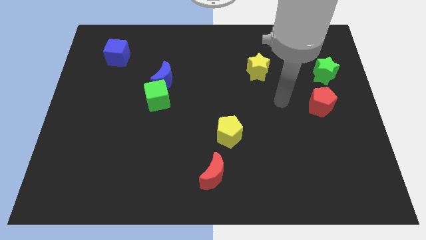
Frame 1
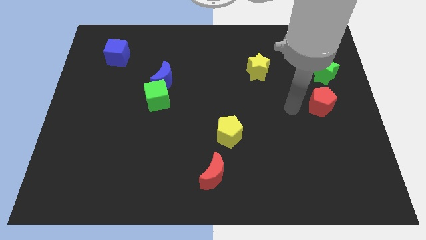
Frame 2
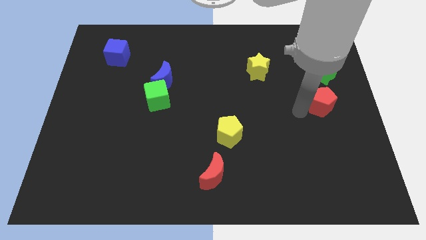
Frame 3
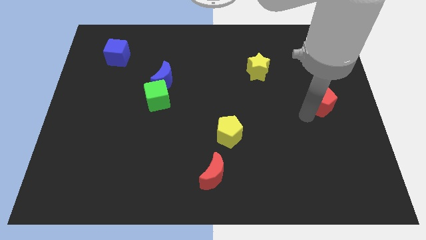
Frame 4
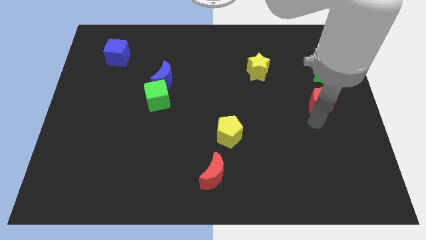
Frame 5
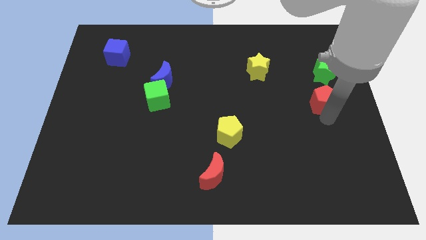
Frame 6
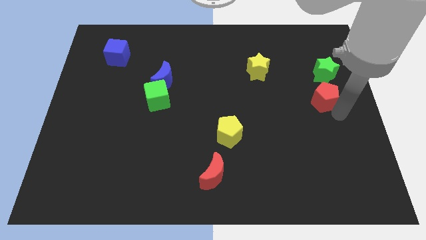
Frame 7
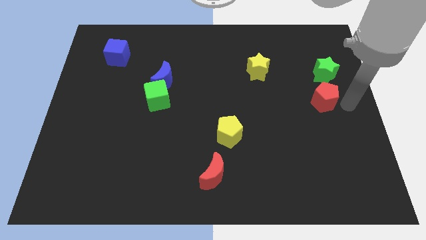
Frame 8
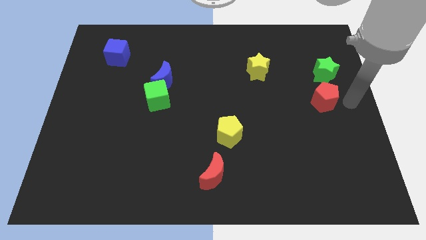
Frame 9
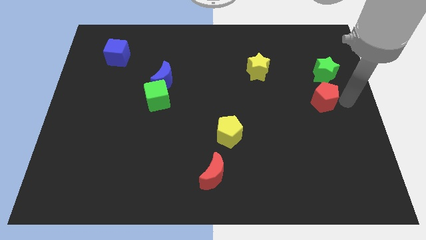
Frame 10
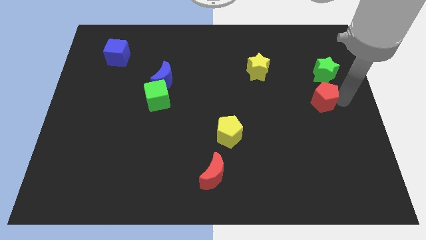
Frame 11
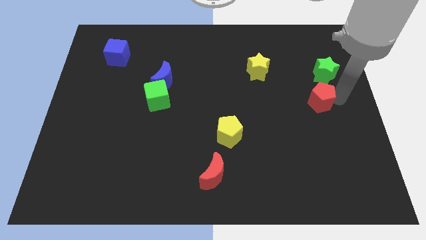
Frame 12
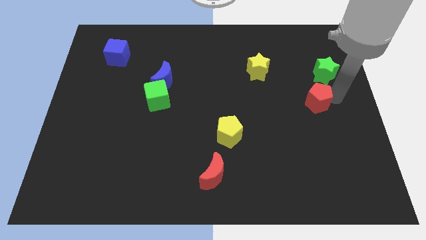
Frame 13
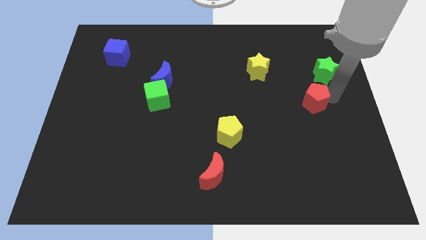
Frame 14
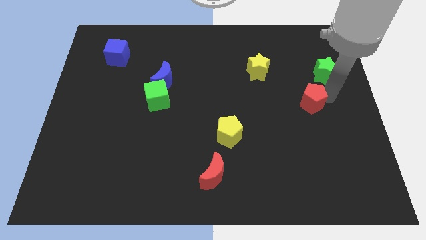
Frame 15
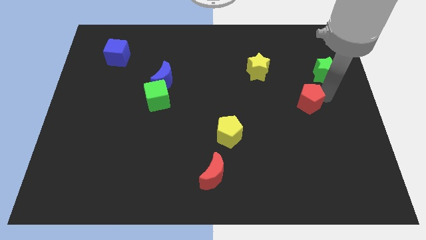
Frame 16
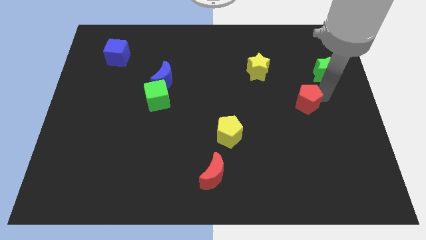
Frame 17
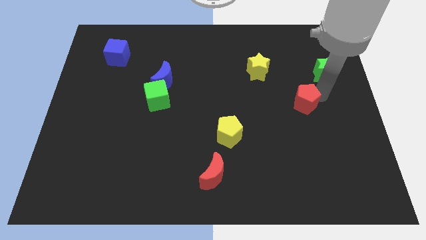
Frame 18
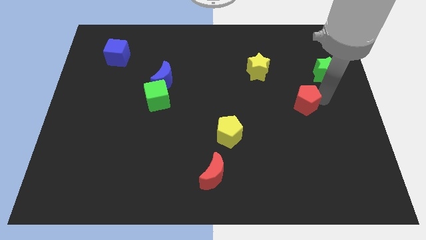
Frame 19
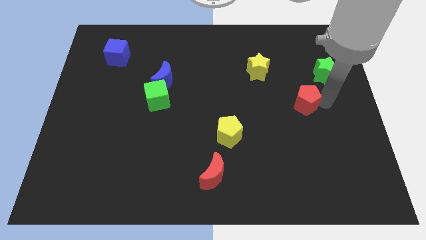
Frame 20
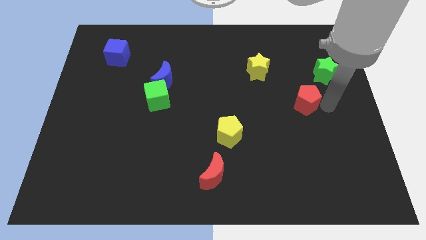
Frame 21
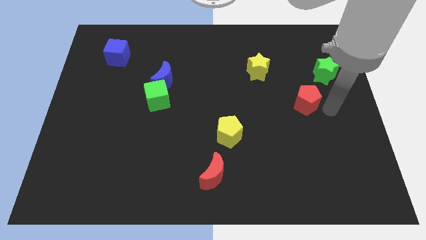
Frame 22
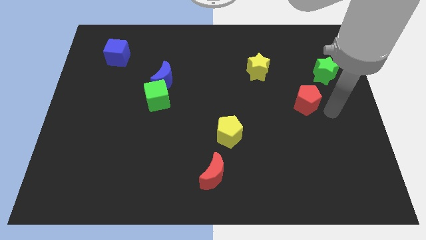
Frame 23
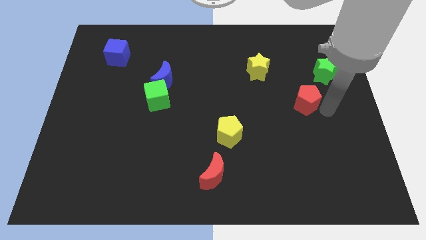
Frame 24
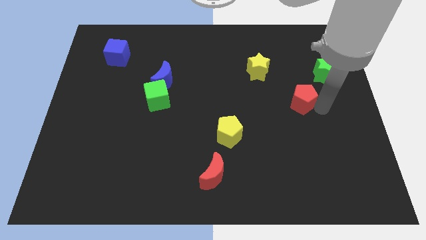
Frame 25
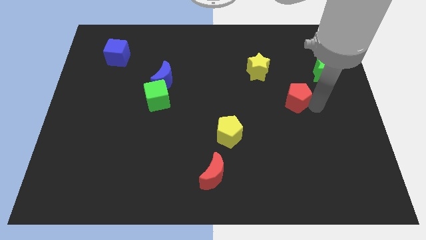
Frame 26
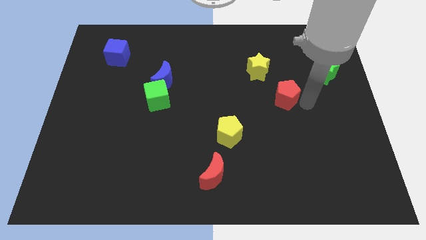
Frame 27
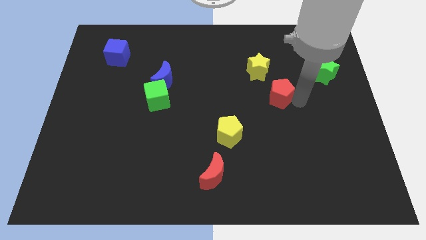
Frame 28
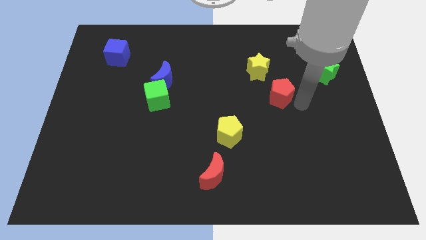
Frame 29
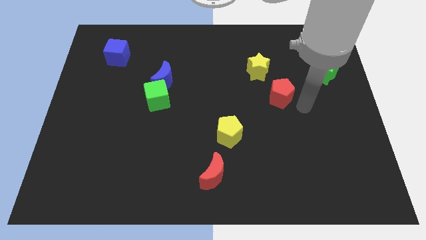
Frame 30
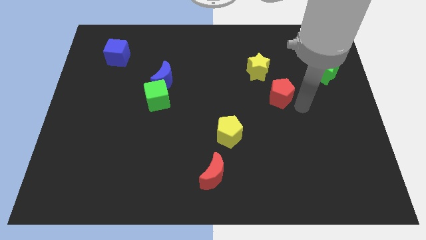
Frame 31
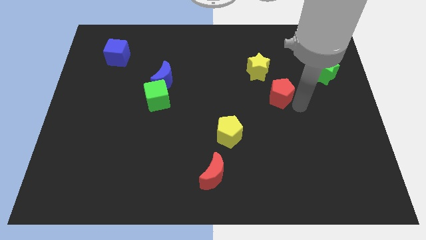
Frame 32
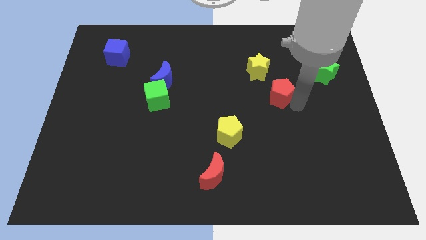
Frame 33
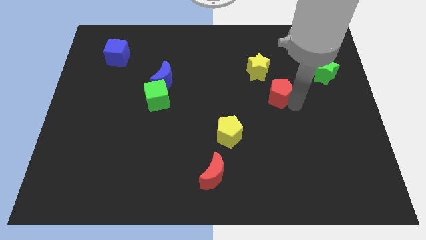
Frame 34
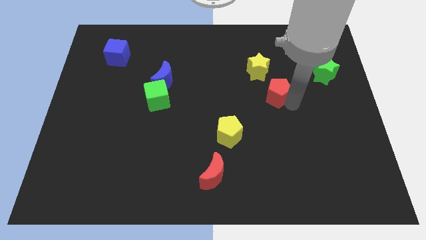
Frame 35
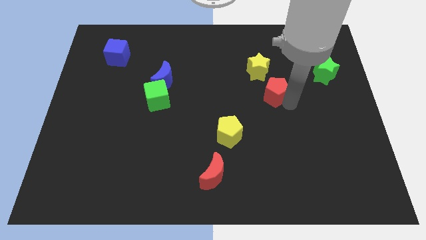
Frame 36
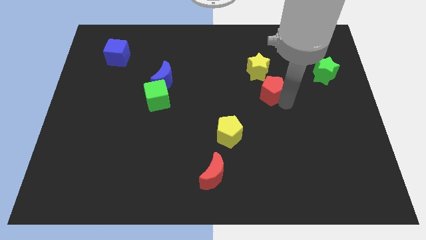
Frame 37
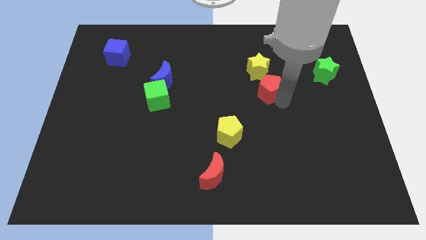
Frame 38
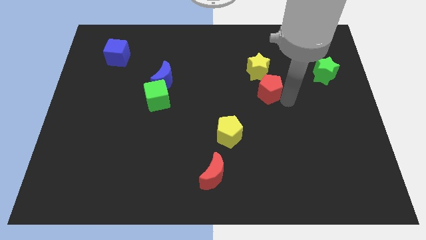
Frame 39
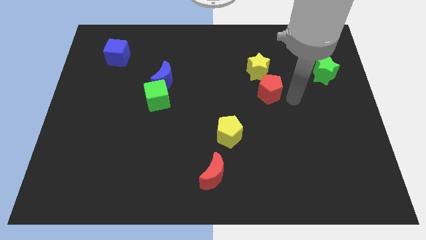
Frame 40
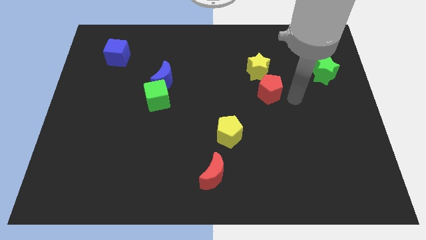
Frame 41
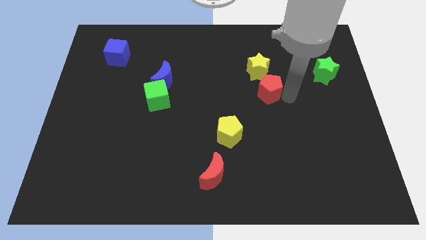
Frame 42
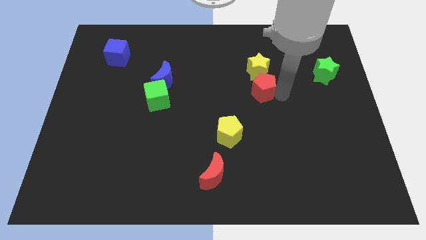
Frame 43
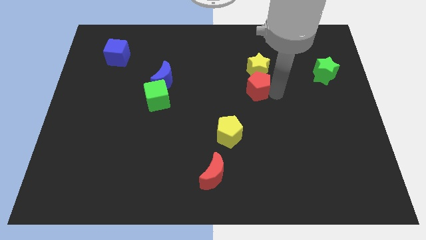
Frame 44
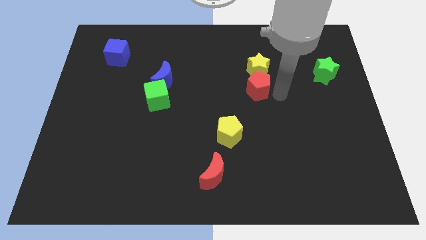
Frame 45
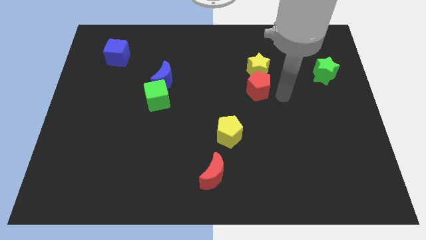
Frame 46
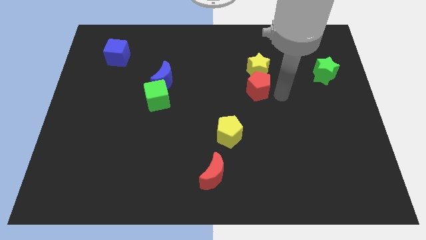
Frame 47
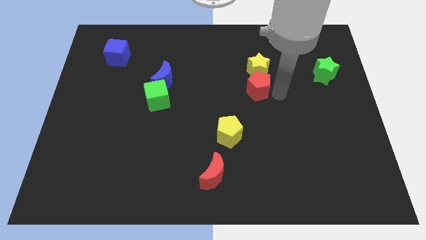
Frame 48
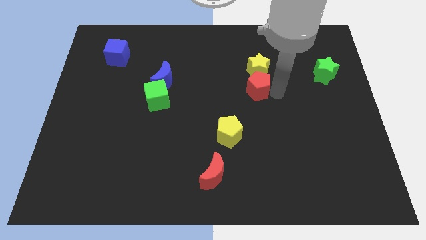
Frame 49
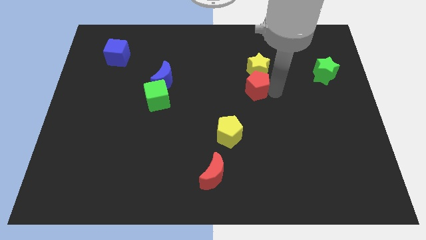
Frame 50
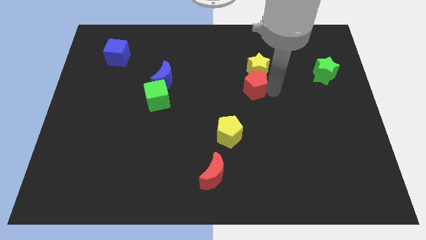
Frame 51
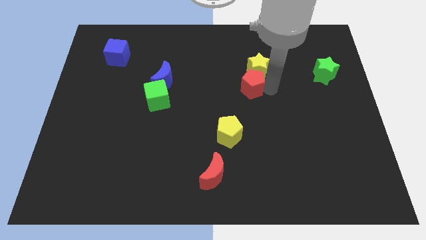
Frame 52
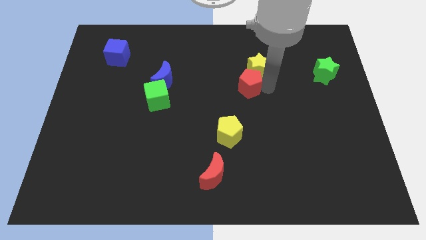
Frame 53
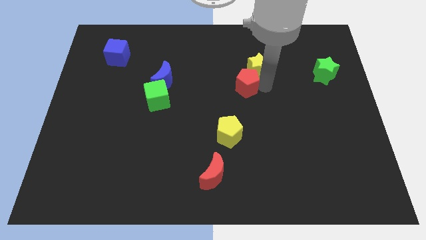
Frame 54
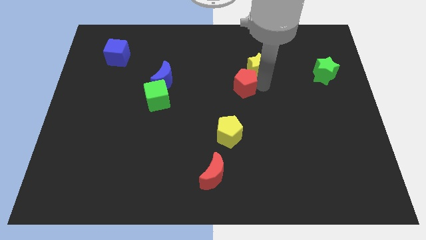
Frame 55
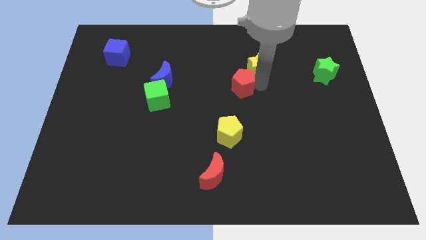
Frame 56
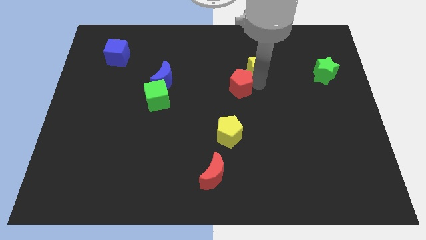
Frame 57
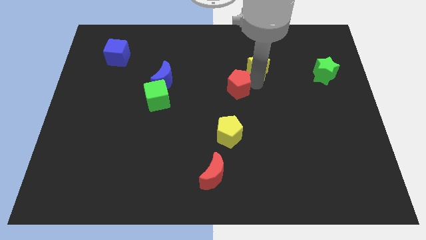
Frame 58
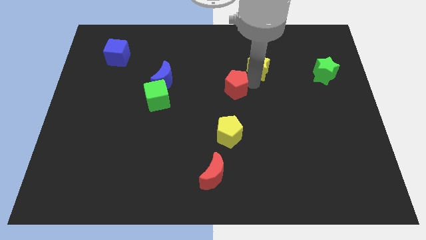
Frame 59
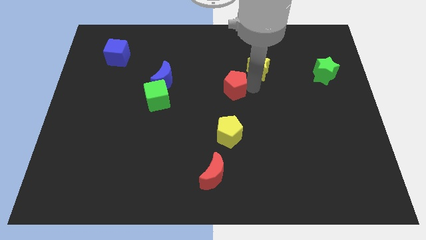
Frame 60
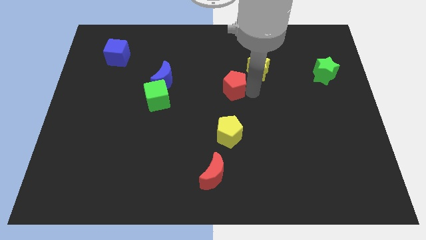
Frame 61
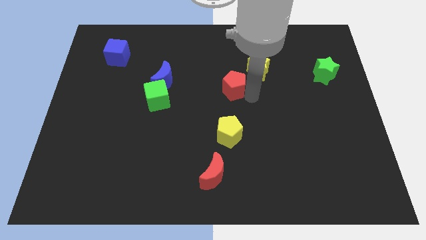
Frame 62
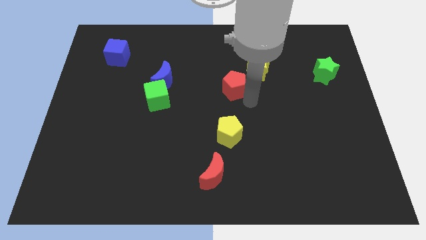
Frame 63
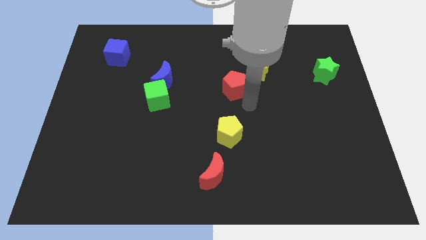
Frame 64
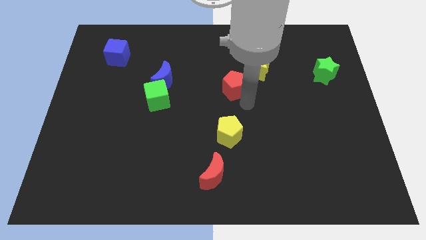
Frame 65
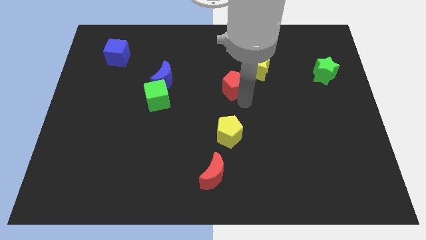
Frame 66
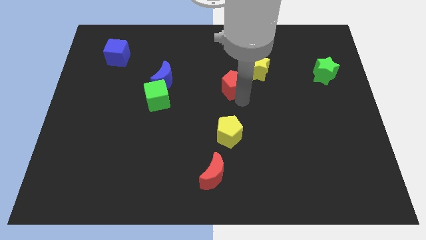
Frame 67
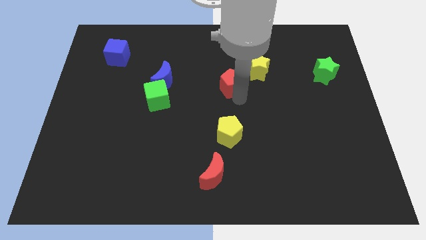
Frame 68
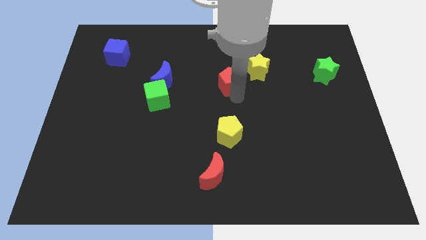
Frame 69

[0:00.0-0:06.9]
move the red pentagon left of the yellow star
